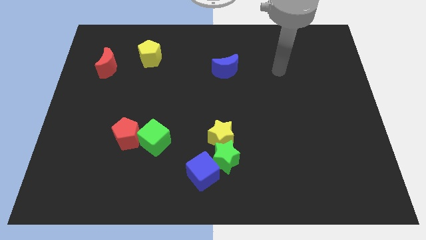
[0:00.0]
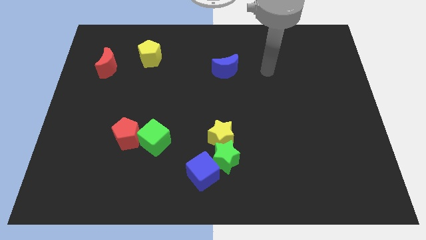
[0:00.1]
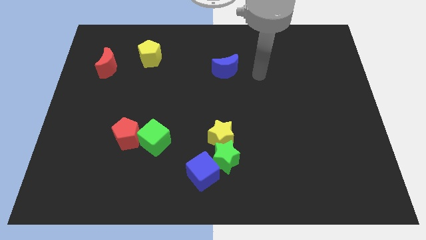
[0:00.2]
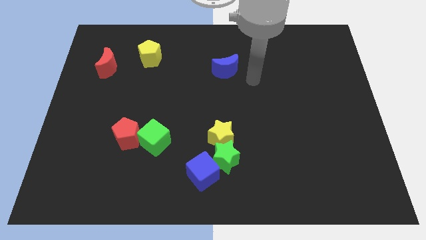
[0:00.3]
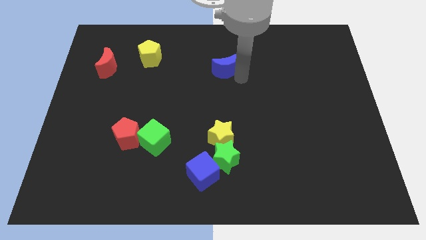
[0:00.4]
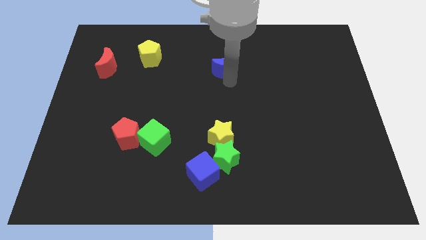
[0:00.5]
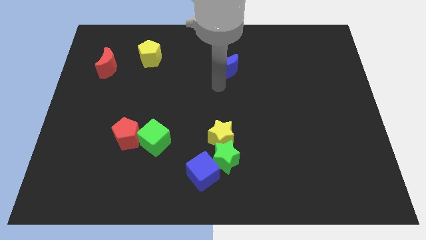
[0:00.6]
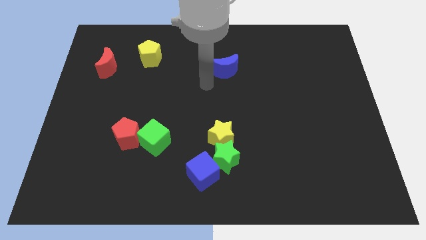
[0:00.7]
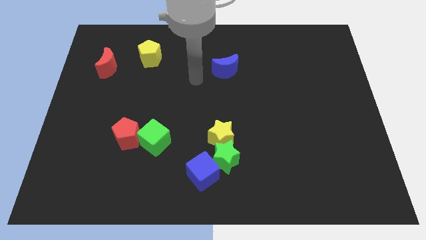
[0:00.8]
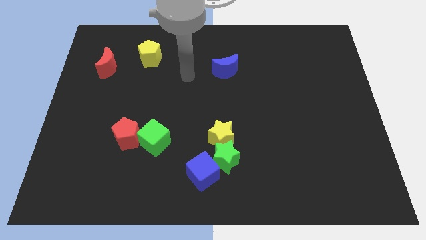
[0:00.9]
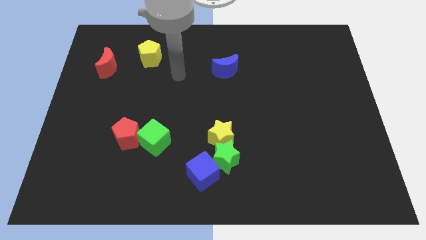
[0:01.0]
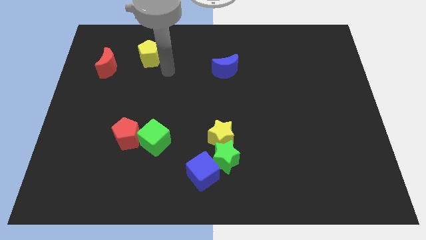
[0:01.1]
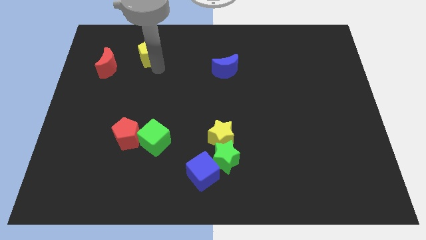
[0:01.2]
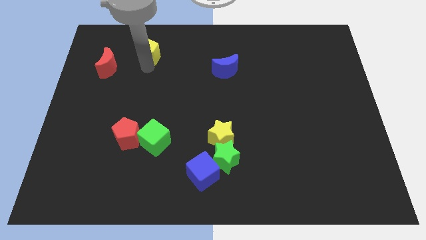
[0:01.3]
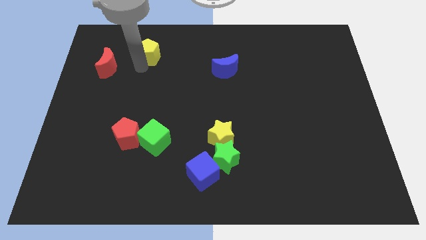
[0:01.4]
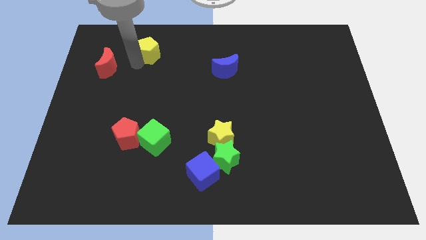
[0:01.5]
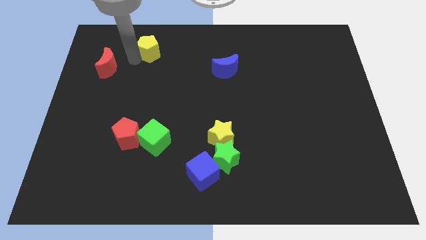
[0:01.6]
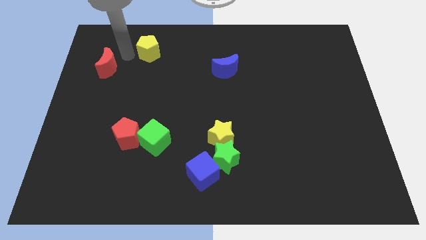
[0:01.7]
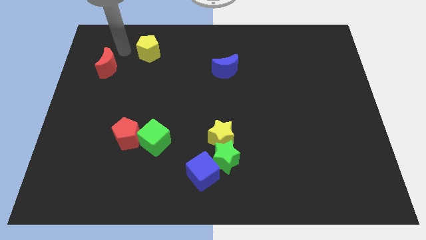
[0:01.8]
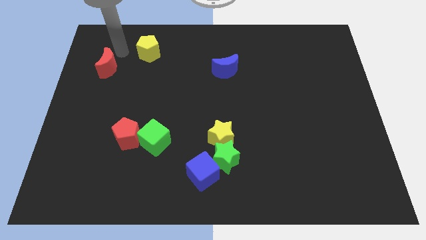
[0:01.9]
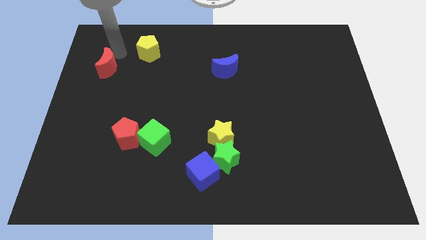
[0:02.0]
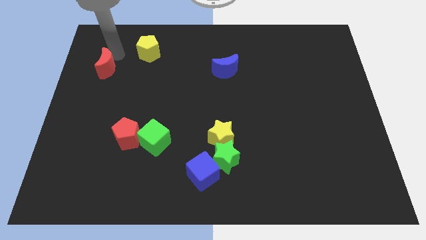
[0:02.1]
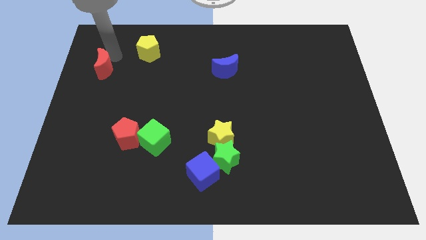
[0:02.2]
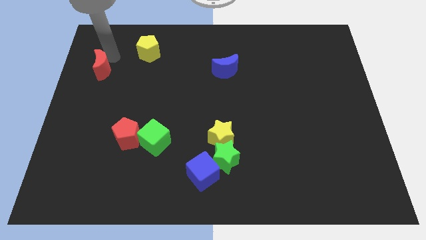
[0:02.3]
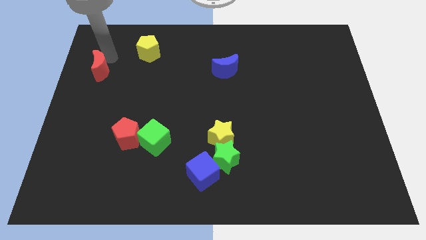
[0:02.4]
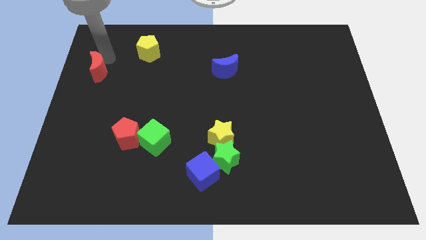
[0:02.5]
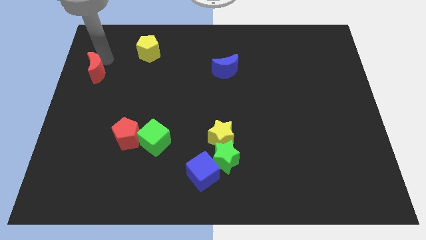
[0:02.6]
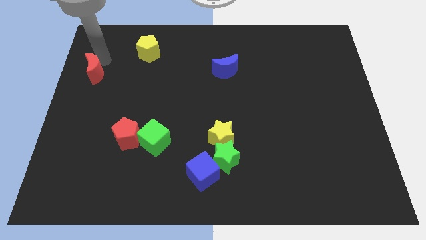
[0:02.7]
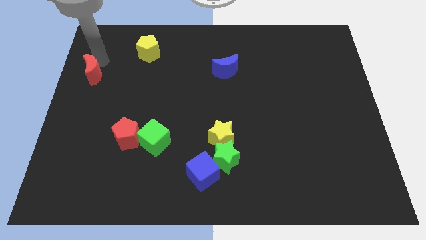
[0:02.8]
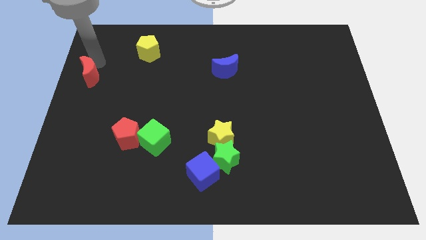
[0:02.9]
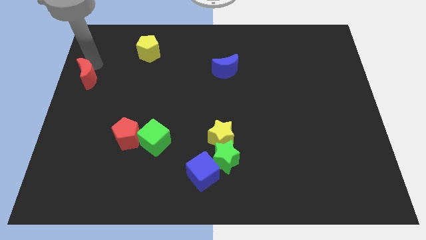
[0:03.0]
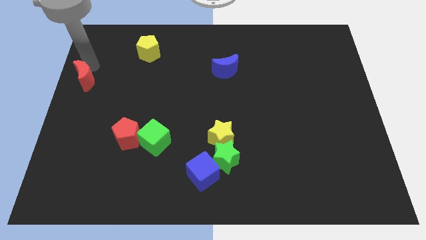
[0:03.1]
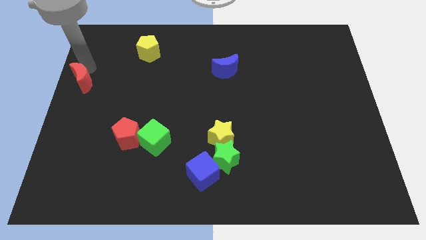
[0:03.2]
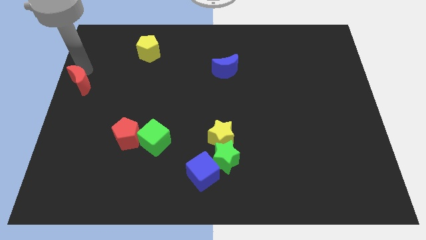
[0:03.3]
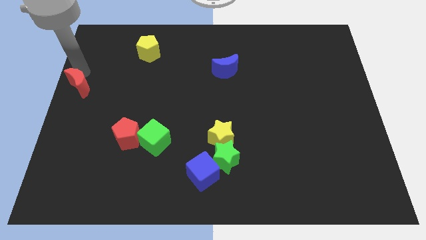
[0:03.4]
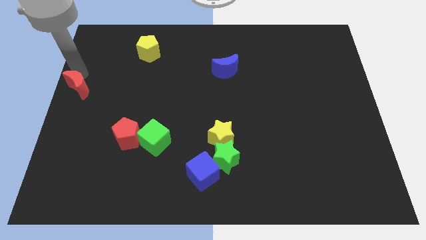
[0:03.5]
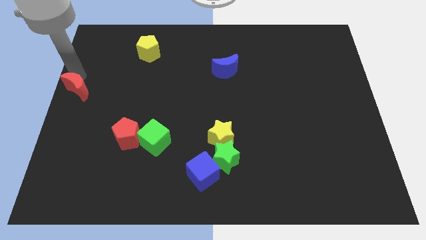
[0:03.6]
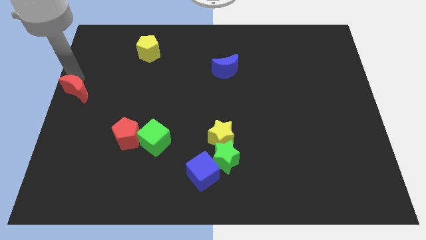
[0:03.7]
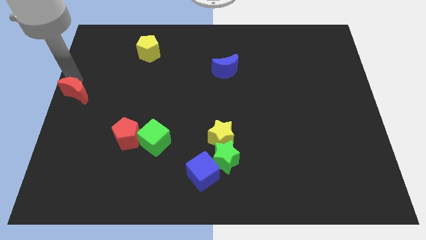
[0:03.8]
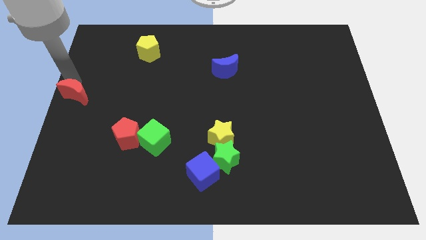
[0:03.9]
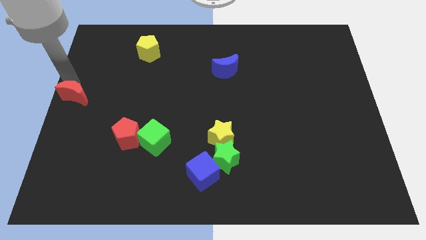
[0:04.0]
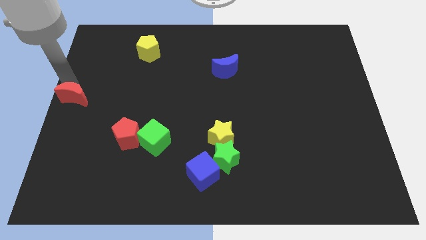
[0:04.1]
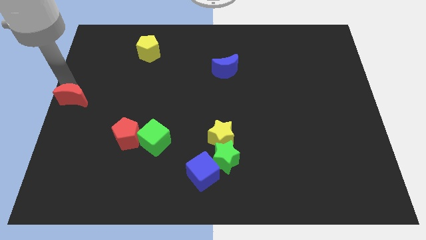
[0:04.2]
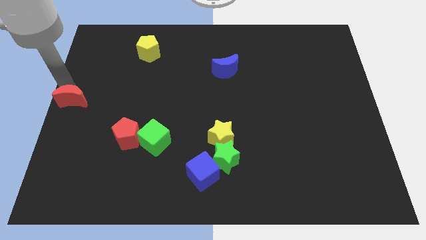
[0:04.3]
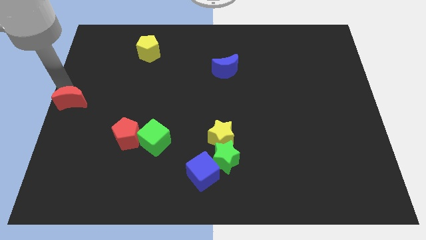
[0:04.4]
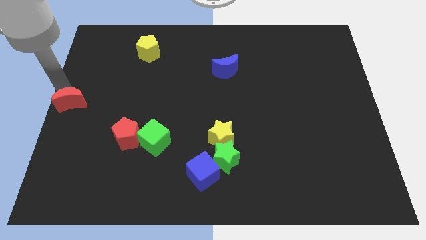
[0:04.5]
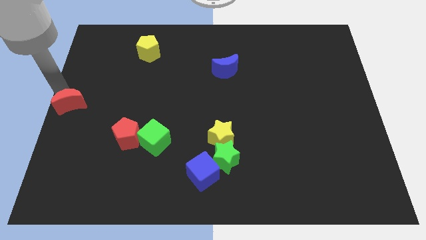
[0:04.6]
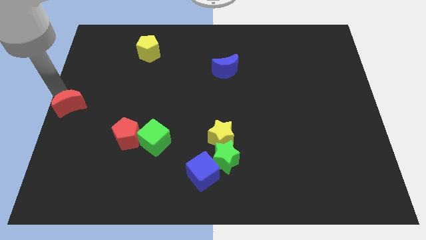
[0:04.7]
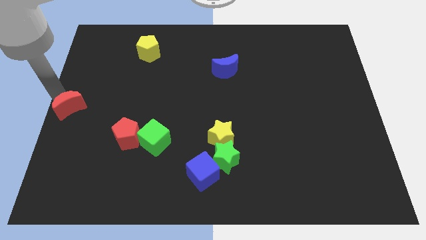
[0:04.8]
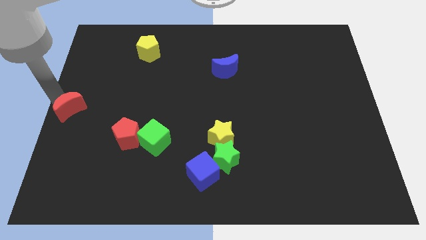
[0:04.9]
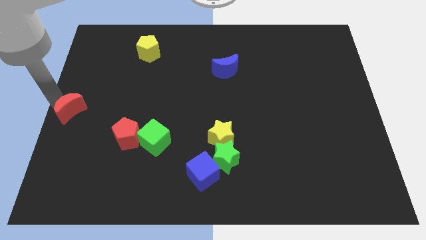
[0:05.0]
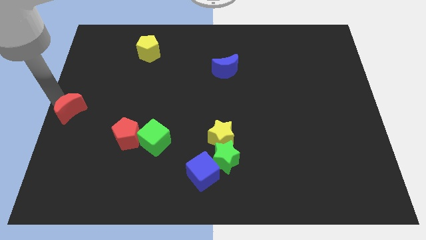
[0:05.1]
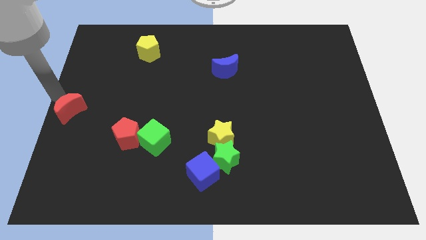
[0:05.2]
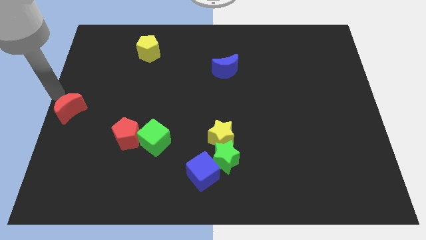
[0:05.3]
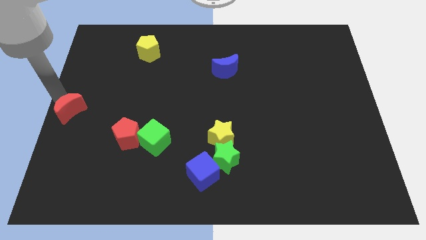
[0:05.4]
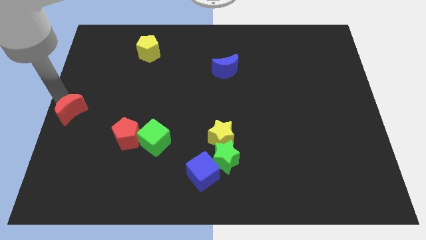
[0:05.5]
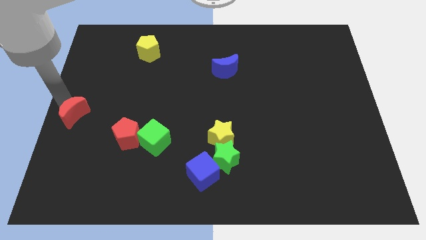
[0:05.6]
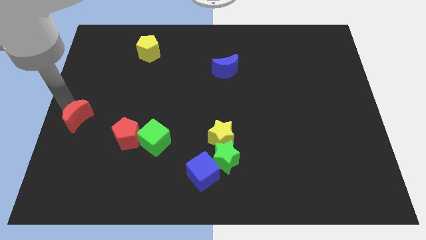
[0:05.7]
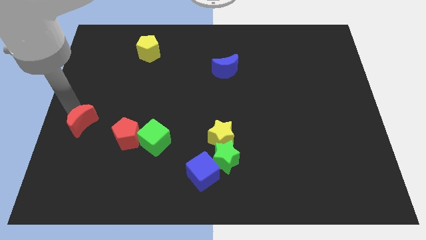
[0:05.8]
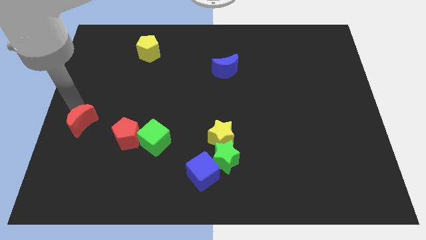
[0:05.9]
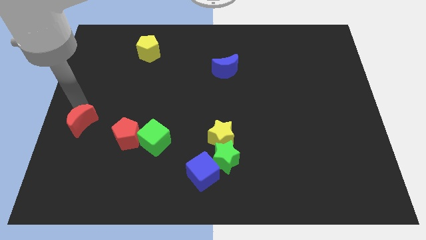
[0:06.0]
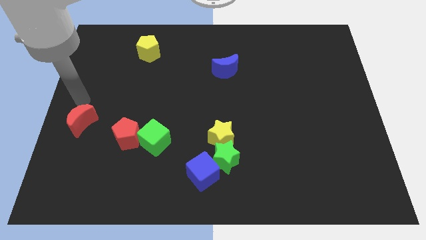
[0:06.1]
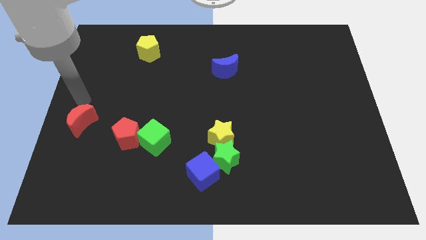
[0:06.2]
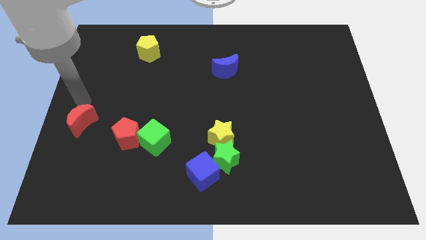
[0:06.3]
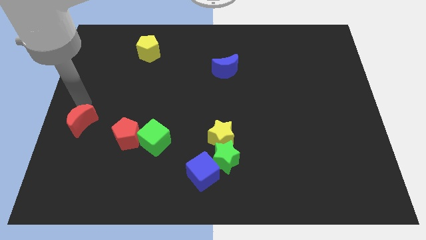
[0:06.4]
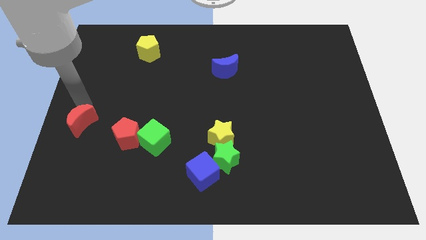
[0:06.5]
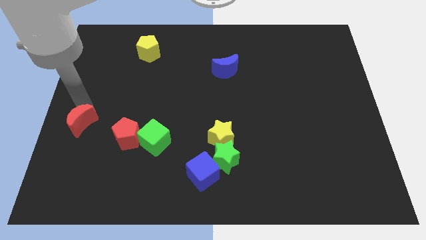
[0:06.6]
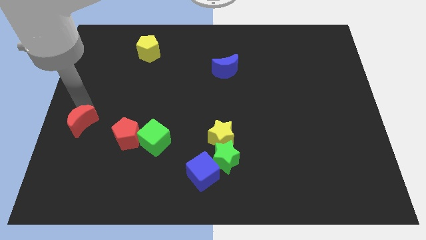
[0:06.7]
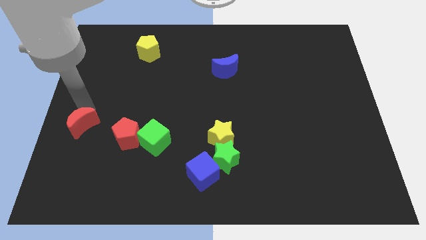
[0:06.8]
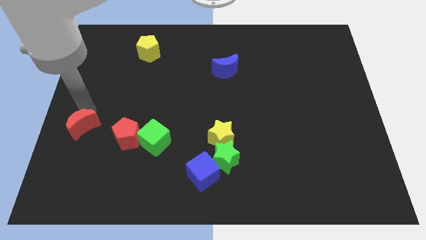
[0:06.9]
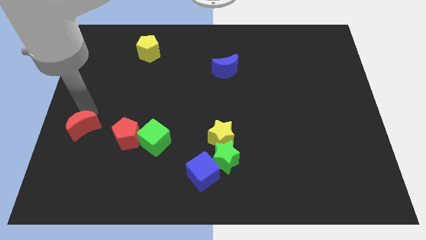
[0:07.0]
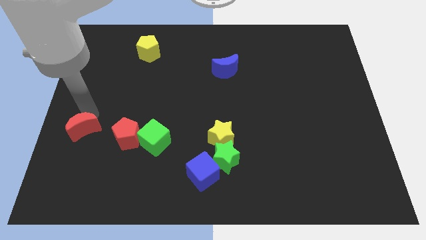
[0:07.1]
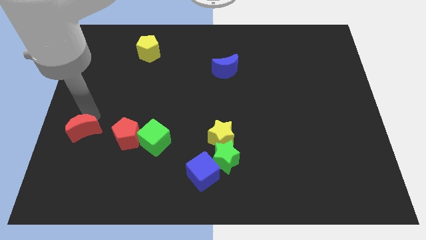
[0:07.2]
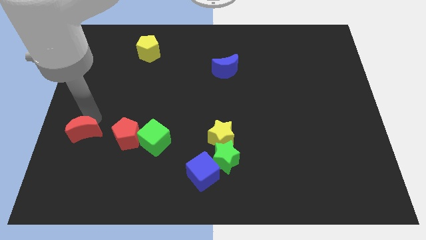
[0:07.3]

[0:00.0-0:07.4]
move the red moon downwards

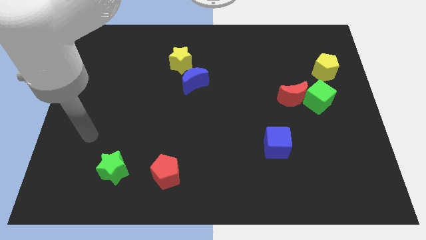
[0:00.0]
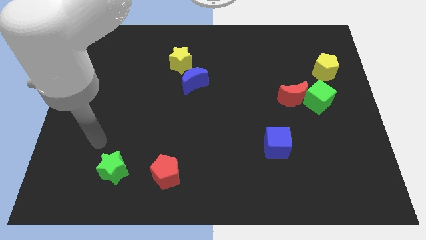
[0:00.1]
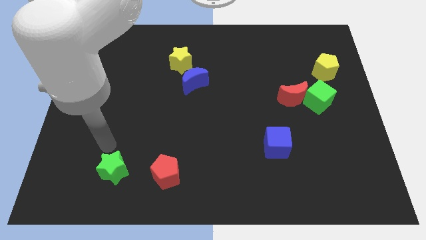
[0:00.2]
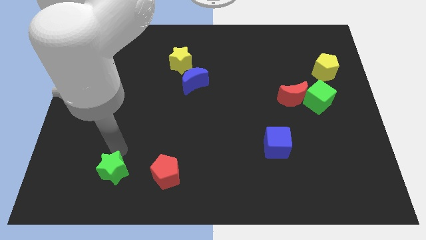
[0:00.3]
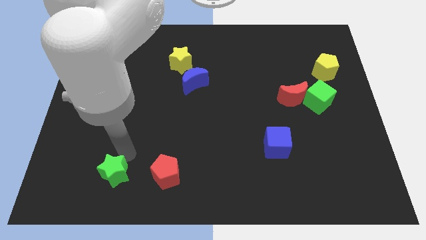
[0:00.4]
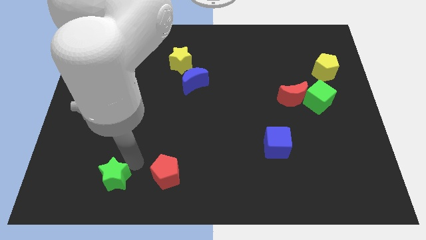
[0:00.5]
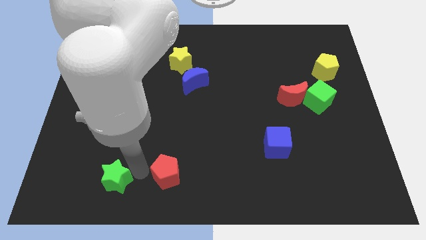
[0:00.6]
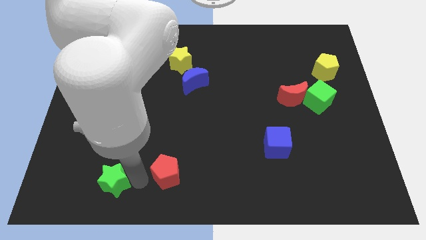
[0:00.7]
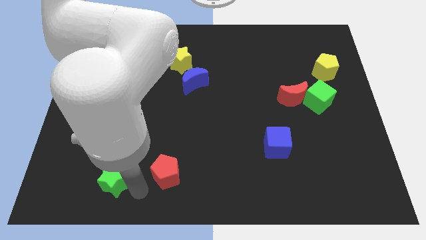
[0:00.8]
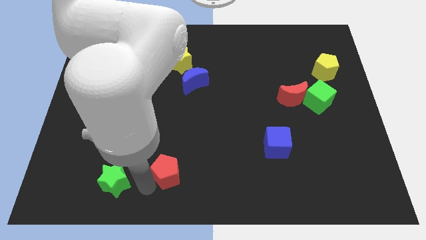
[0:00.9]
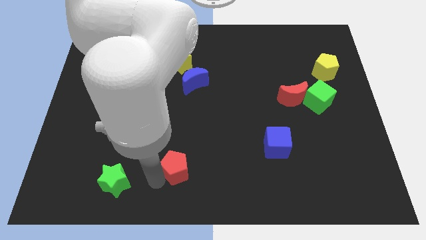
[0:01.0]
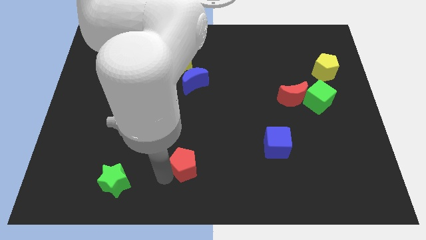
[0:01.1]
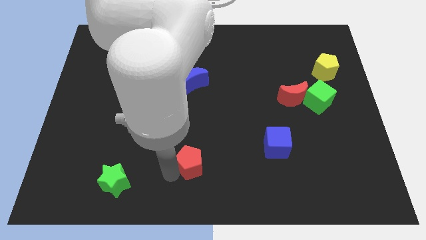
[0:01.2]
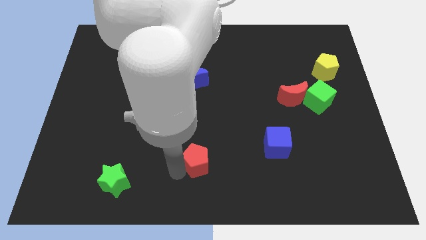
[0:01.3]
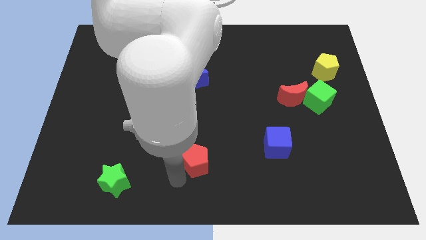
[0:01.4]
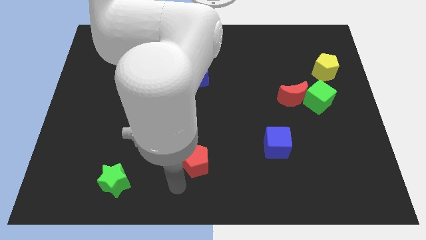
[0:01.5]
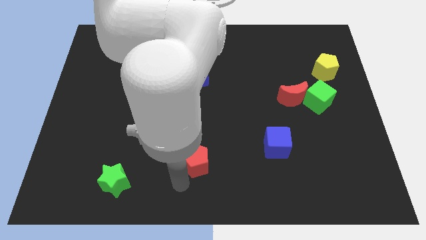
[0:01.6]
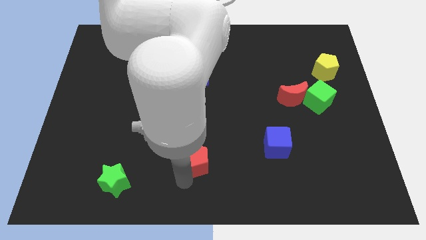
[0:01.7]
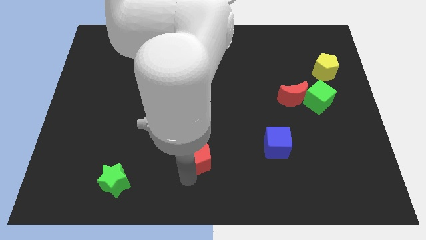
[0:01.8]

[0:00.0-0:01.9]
slide the red pentagon up and then right a bit
